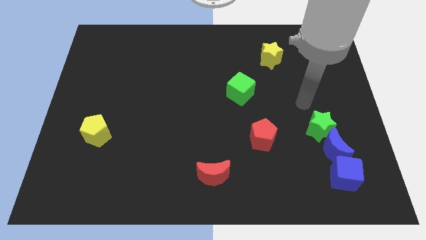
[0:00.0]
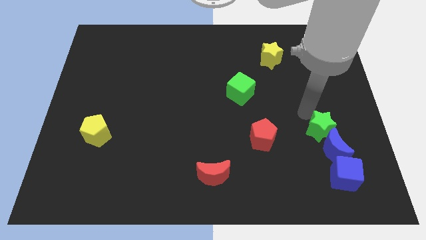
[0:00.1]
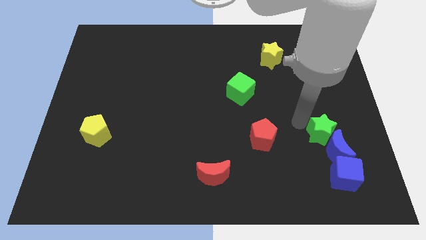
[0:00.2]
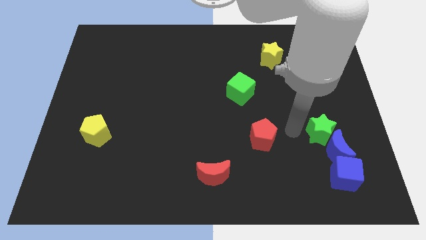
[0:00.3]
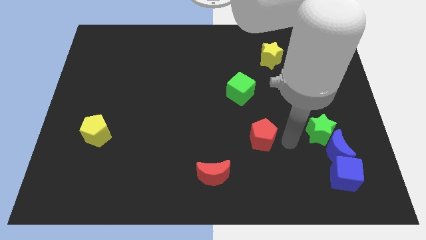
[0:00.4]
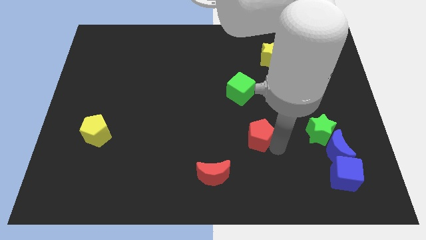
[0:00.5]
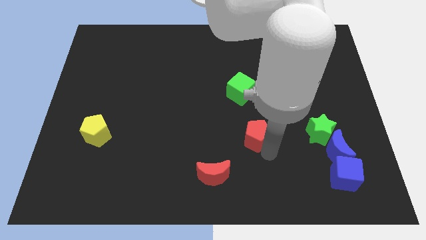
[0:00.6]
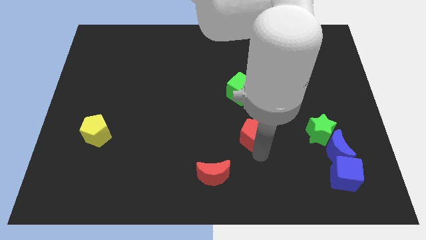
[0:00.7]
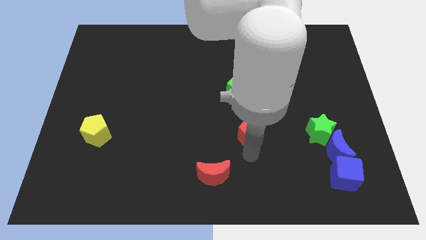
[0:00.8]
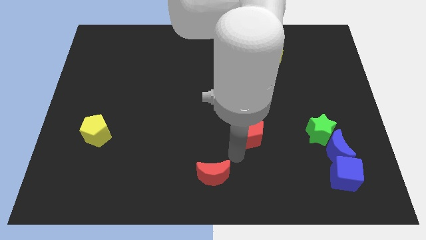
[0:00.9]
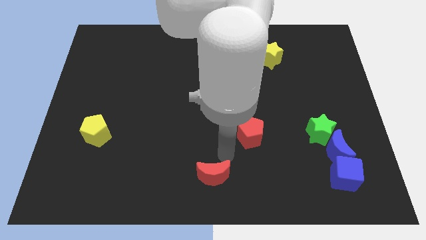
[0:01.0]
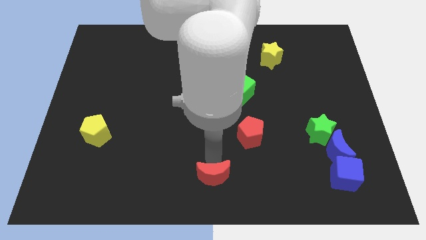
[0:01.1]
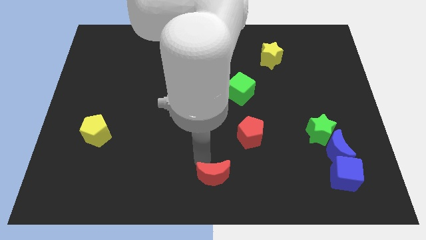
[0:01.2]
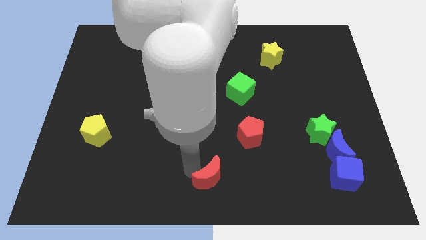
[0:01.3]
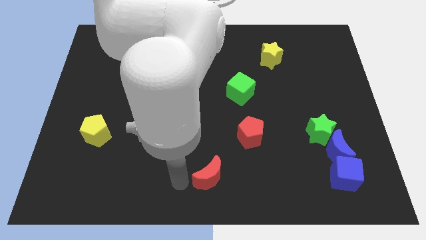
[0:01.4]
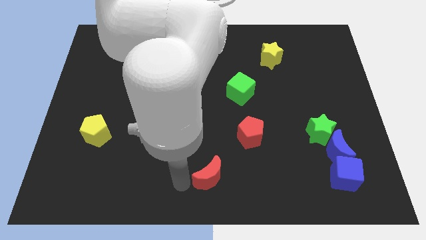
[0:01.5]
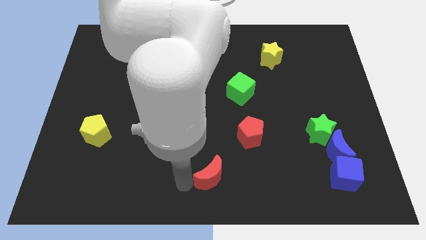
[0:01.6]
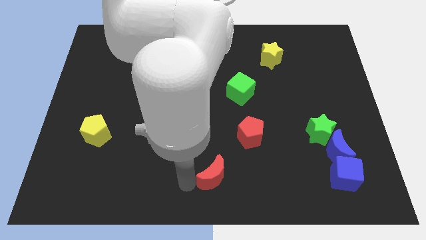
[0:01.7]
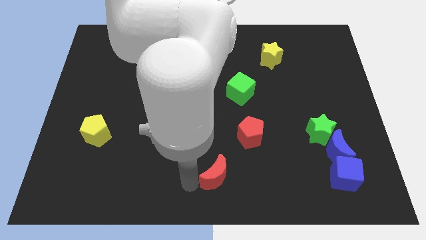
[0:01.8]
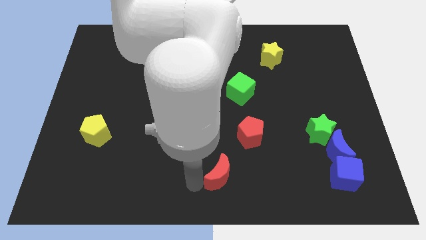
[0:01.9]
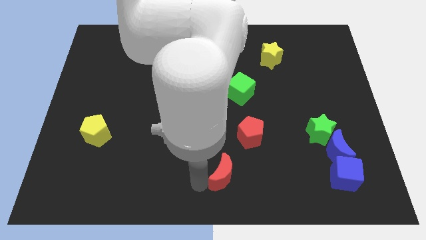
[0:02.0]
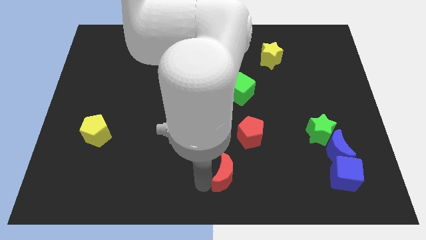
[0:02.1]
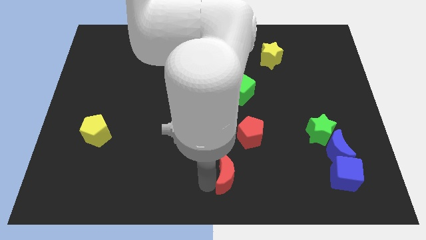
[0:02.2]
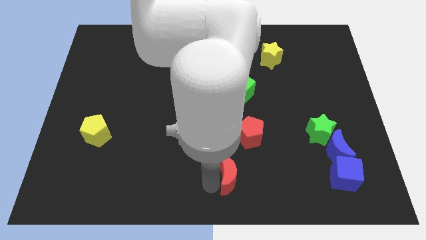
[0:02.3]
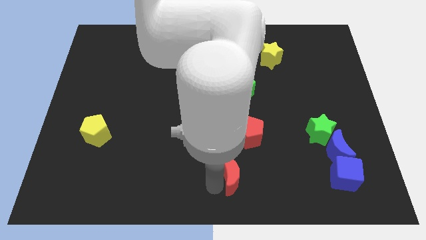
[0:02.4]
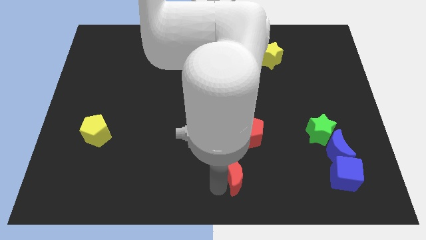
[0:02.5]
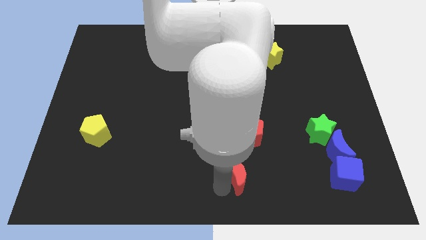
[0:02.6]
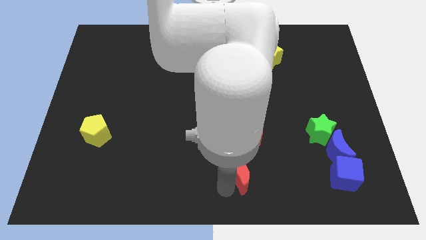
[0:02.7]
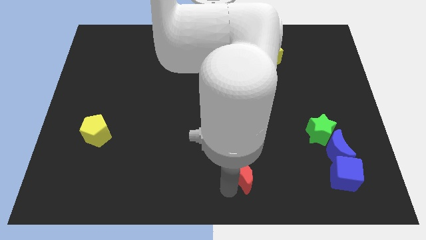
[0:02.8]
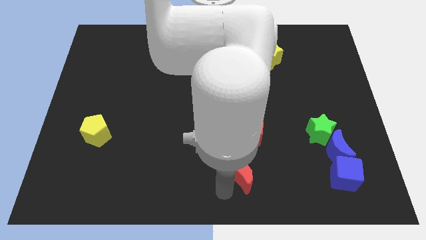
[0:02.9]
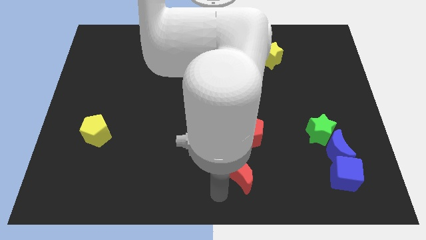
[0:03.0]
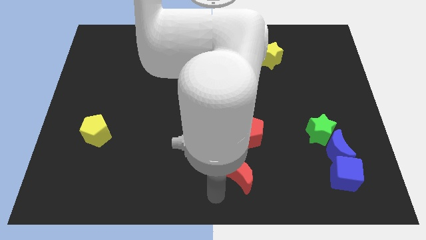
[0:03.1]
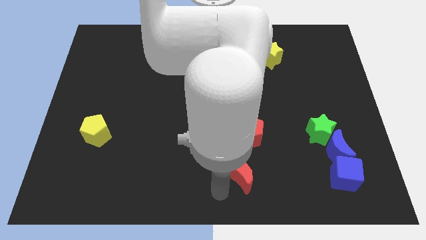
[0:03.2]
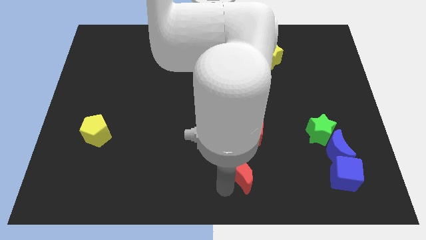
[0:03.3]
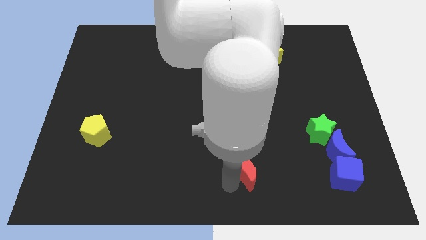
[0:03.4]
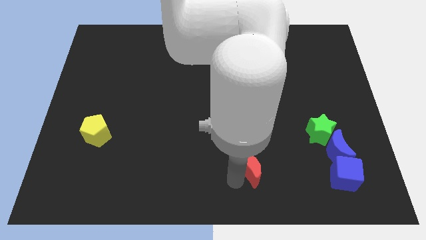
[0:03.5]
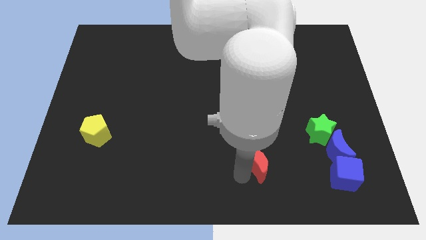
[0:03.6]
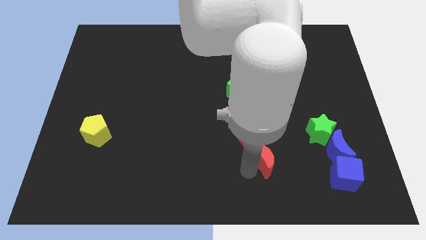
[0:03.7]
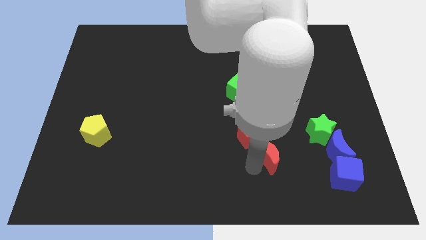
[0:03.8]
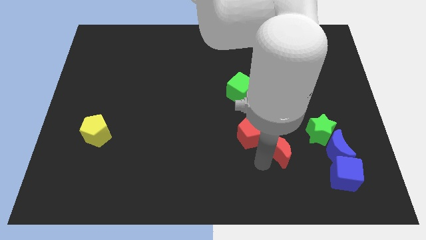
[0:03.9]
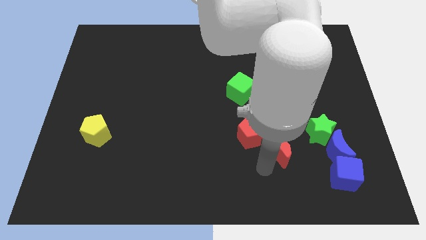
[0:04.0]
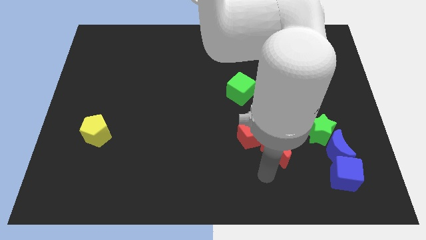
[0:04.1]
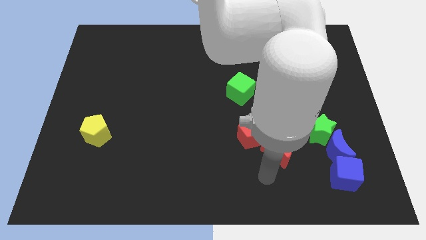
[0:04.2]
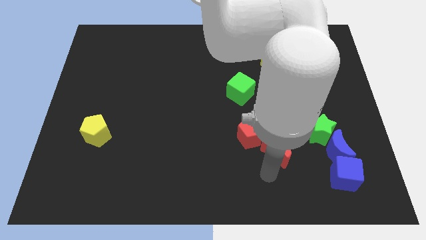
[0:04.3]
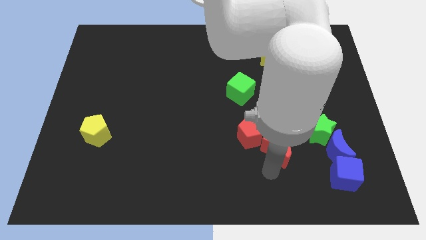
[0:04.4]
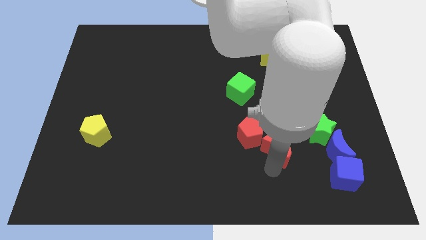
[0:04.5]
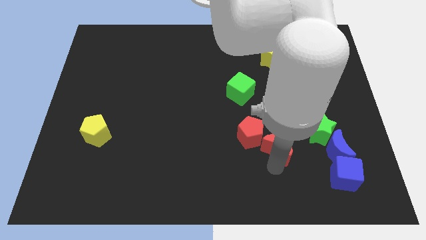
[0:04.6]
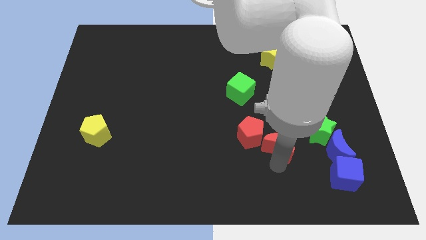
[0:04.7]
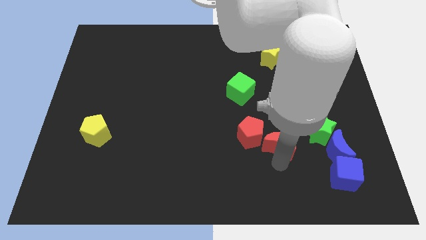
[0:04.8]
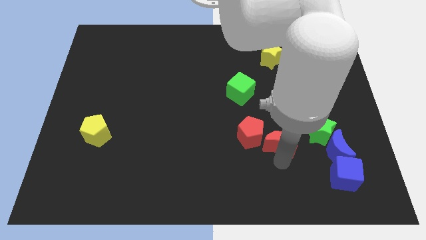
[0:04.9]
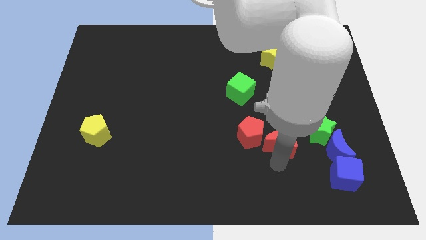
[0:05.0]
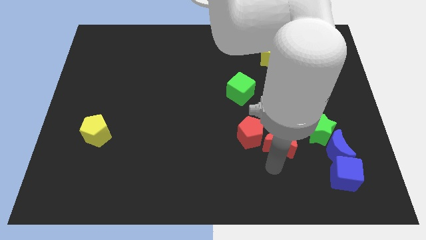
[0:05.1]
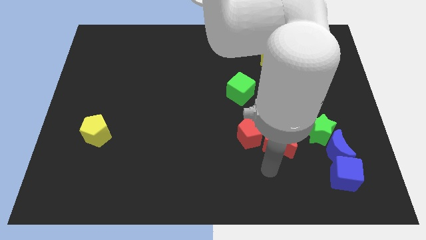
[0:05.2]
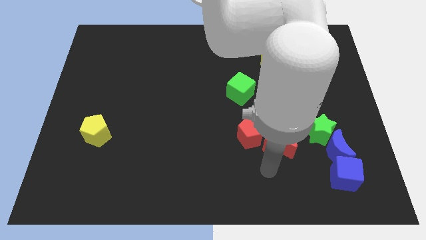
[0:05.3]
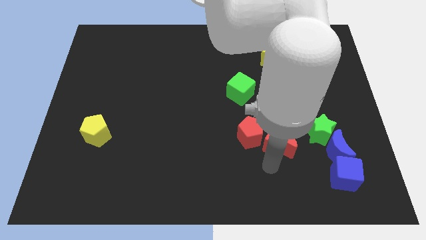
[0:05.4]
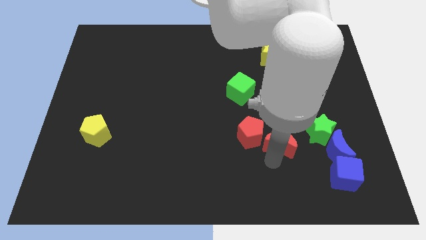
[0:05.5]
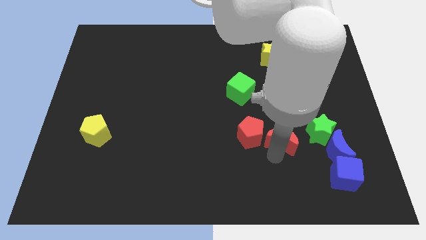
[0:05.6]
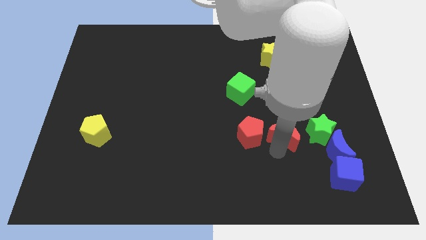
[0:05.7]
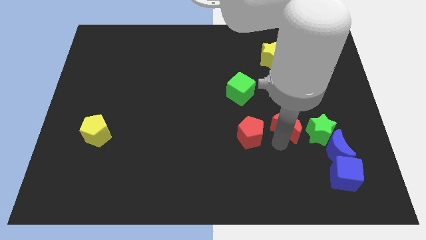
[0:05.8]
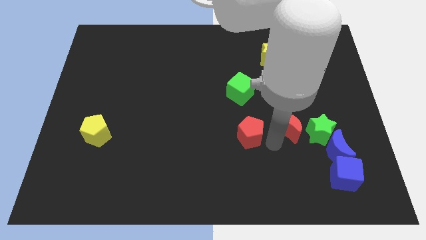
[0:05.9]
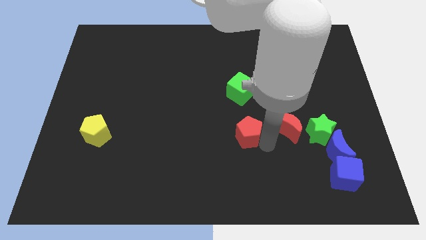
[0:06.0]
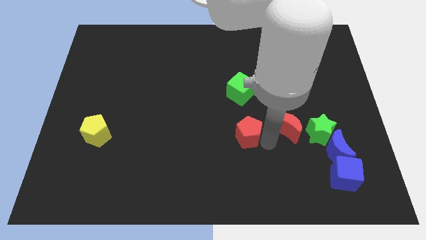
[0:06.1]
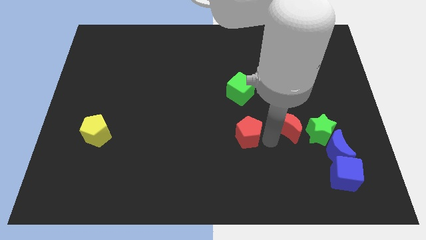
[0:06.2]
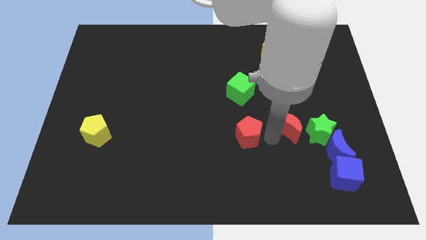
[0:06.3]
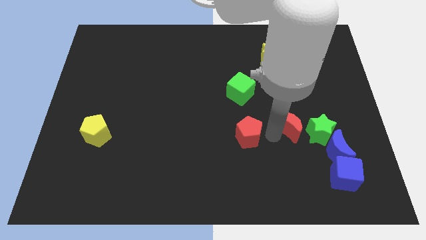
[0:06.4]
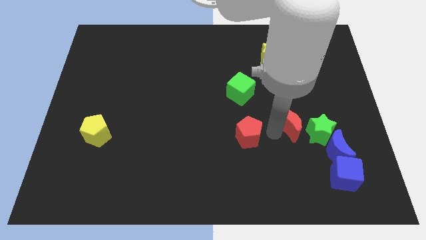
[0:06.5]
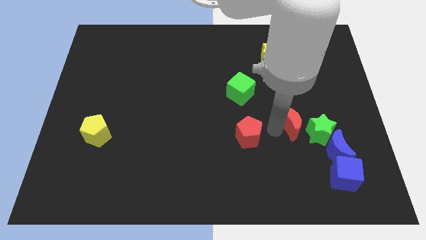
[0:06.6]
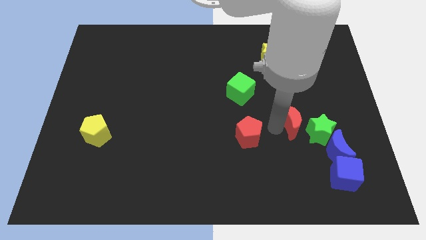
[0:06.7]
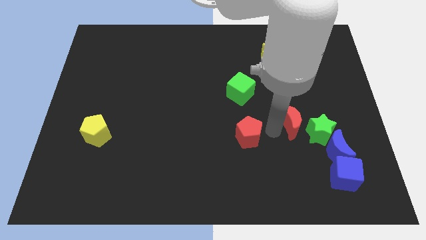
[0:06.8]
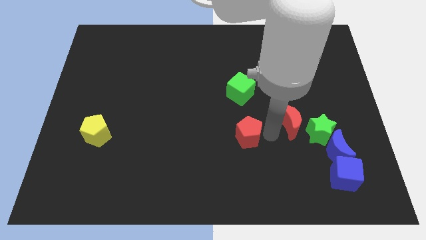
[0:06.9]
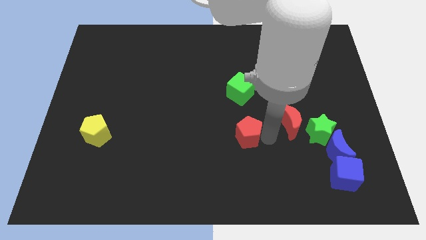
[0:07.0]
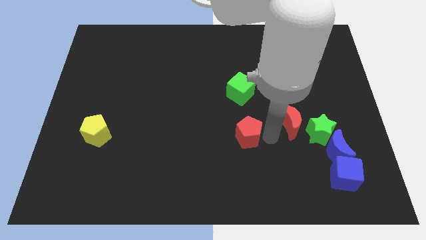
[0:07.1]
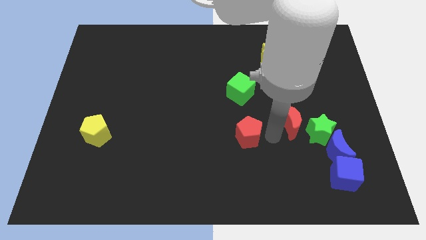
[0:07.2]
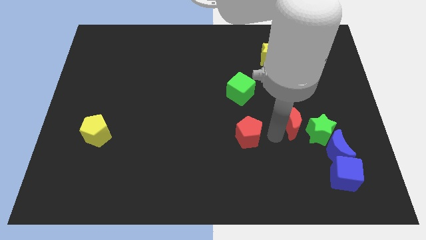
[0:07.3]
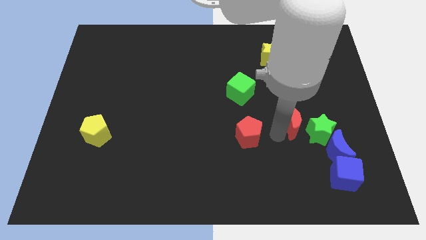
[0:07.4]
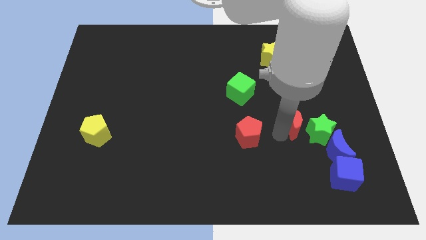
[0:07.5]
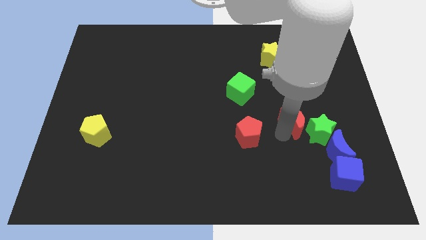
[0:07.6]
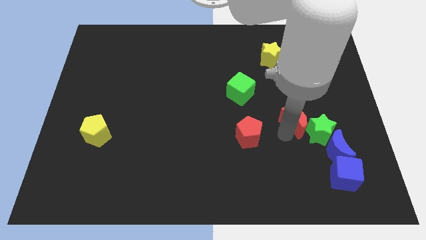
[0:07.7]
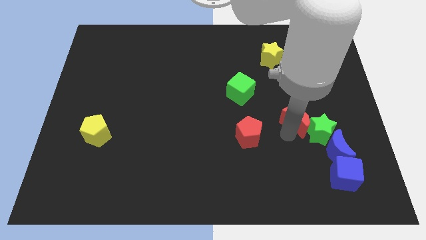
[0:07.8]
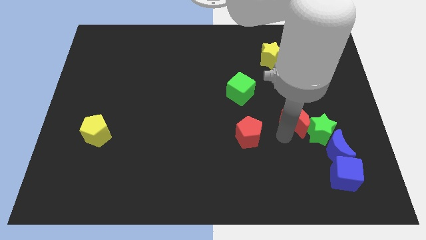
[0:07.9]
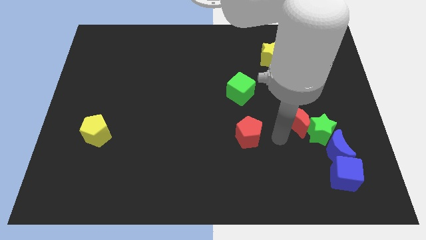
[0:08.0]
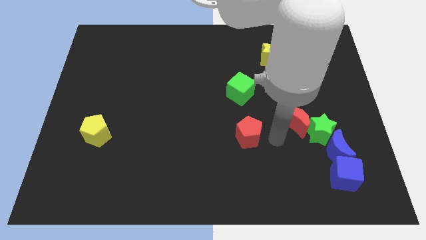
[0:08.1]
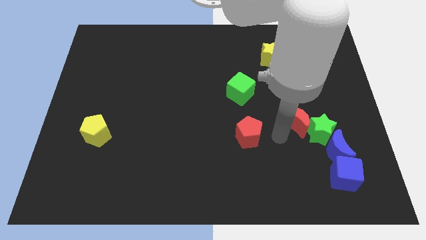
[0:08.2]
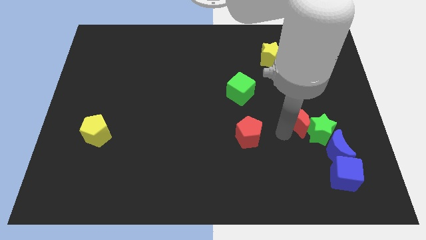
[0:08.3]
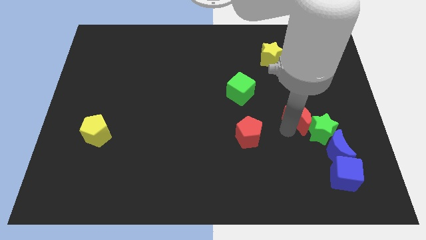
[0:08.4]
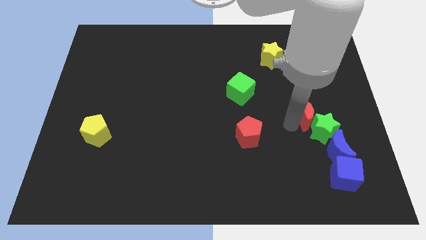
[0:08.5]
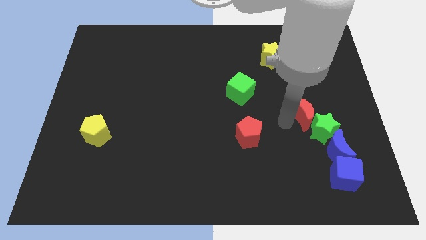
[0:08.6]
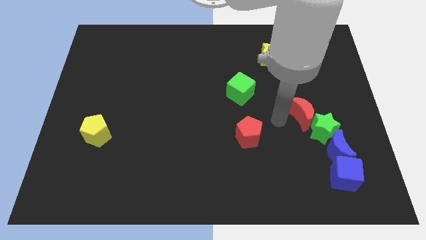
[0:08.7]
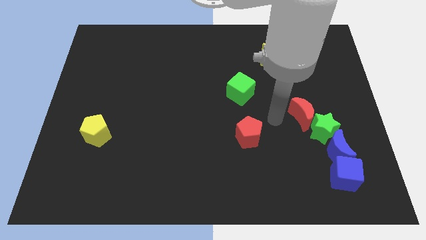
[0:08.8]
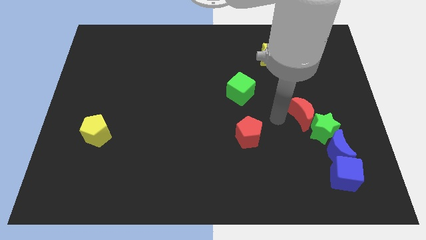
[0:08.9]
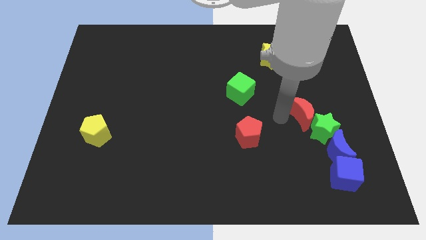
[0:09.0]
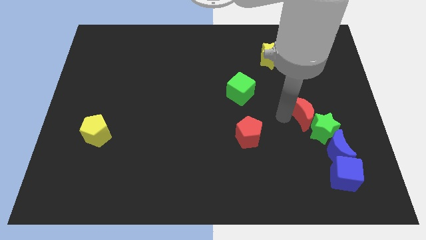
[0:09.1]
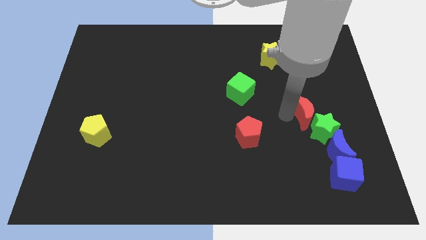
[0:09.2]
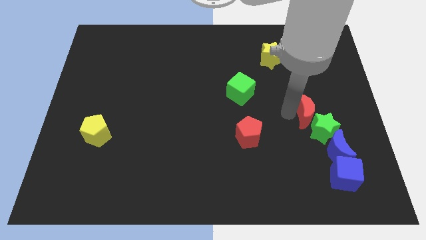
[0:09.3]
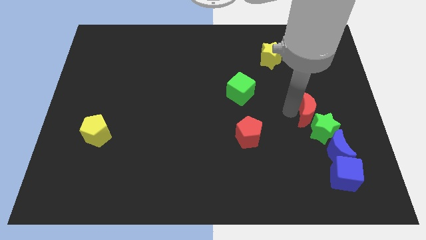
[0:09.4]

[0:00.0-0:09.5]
slide the red moon to the top of the blue moon
